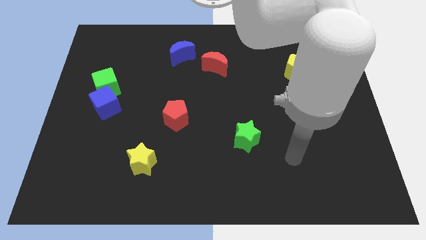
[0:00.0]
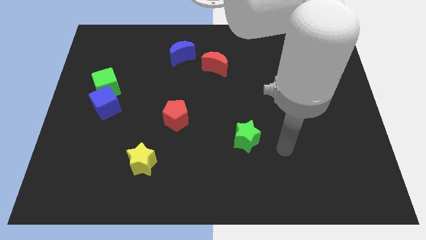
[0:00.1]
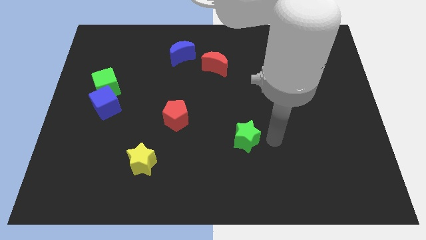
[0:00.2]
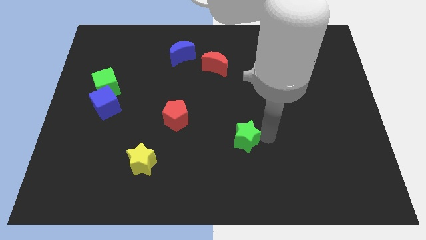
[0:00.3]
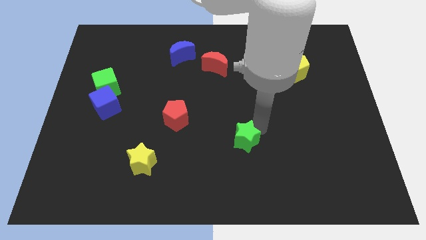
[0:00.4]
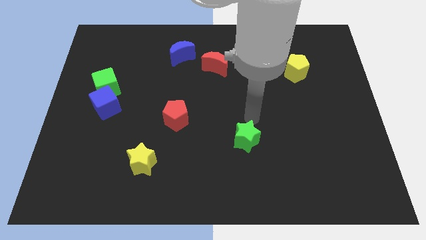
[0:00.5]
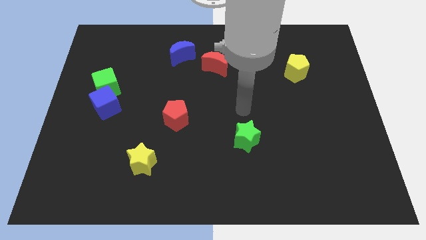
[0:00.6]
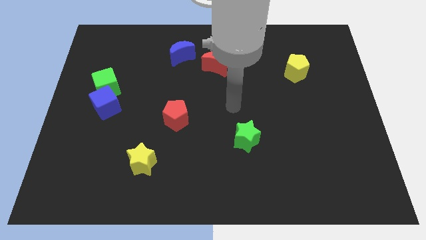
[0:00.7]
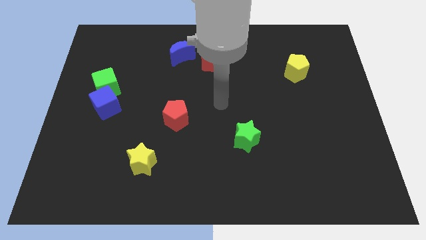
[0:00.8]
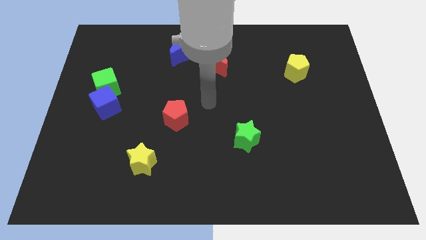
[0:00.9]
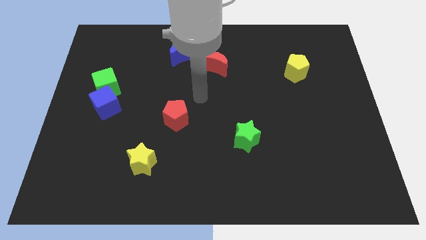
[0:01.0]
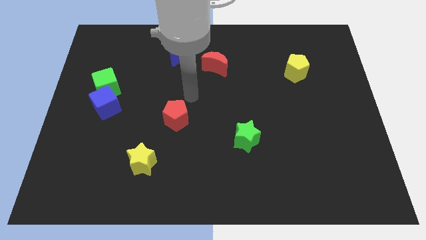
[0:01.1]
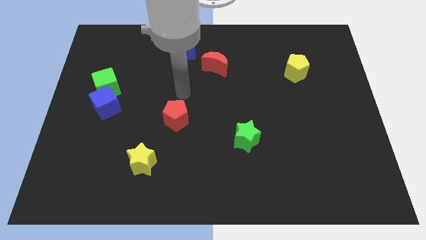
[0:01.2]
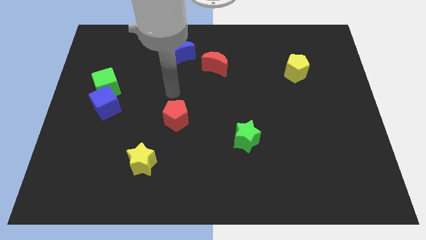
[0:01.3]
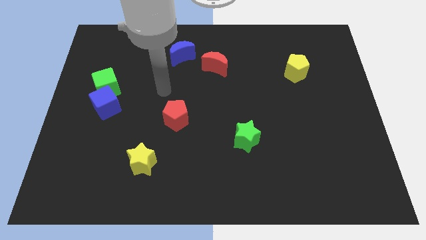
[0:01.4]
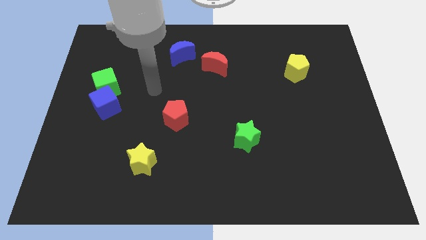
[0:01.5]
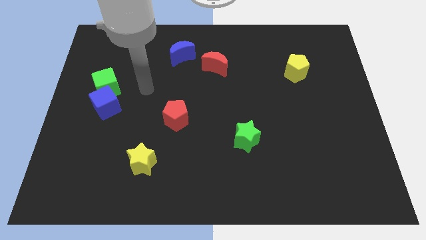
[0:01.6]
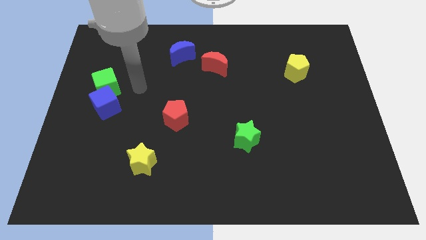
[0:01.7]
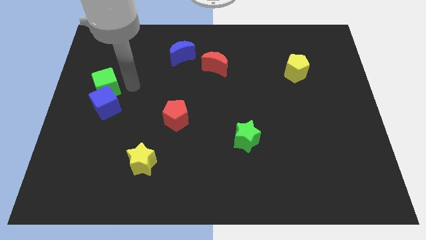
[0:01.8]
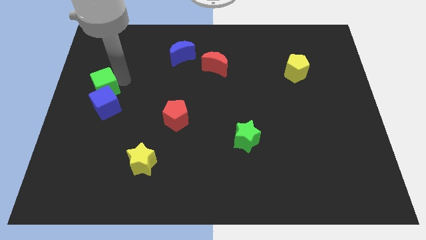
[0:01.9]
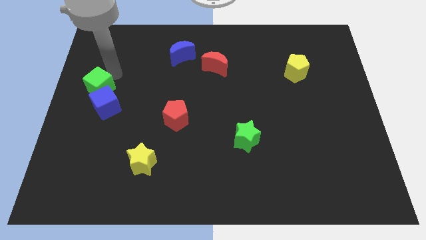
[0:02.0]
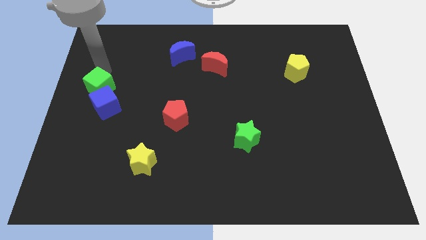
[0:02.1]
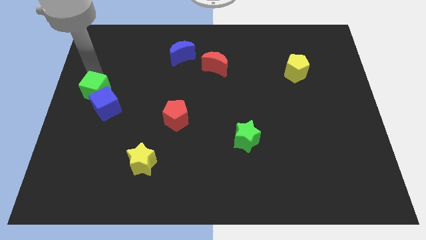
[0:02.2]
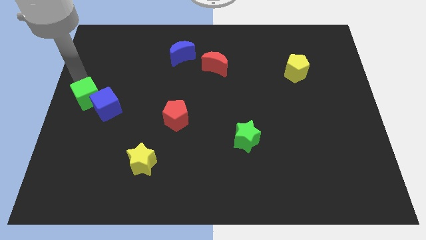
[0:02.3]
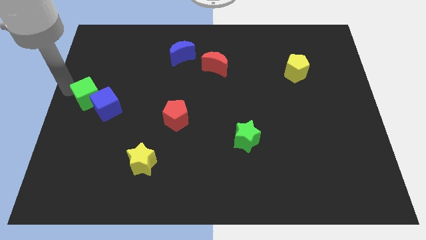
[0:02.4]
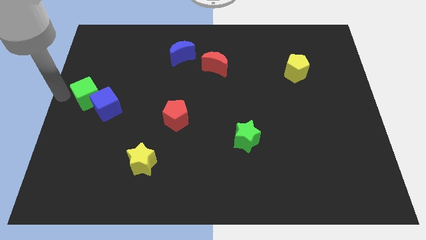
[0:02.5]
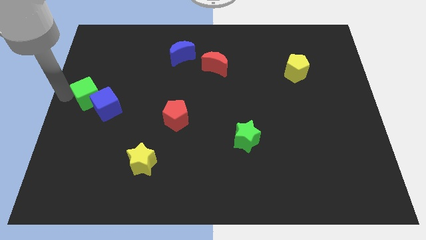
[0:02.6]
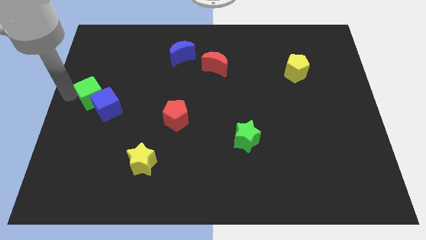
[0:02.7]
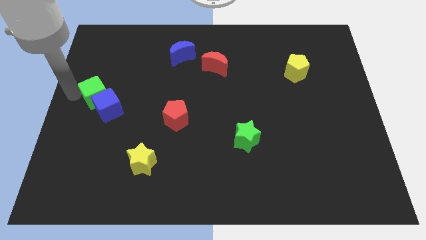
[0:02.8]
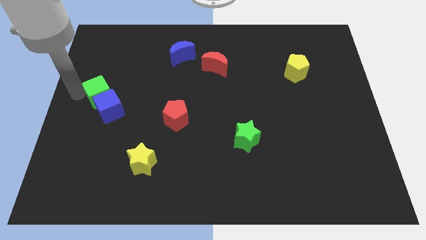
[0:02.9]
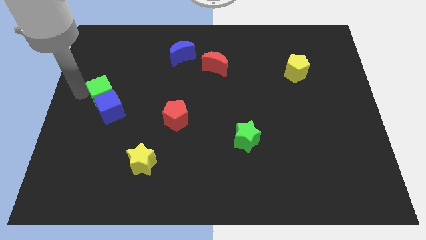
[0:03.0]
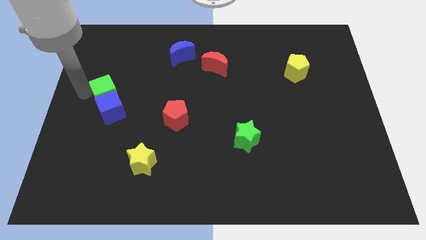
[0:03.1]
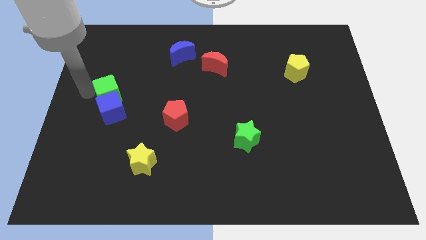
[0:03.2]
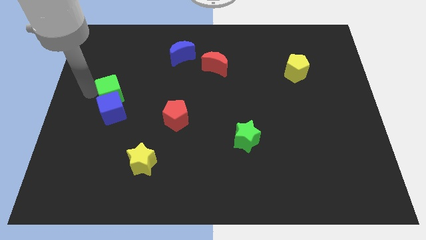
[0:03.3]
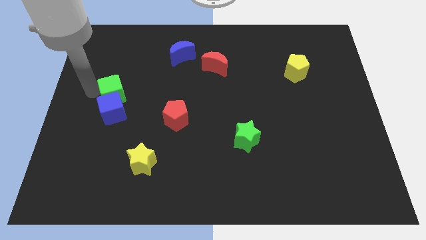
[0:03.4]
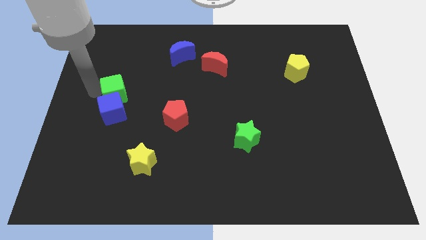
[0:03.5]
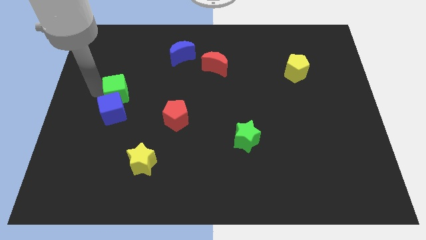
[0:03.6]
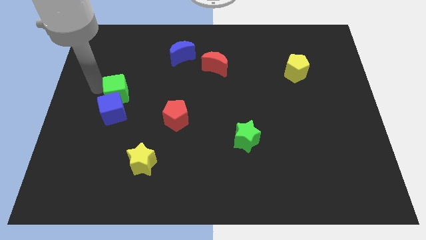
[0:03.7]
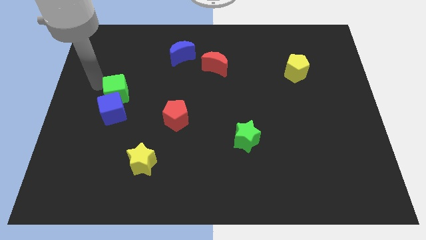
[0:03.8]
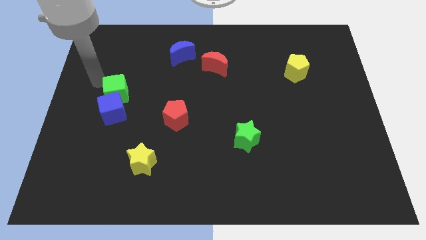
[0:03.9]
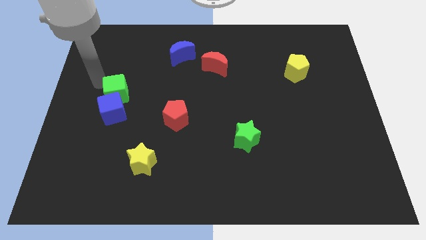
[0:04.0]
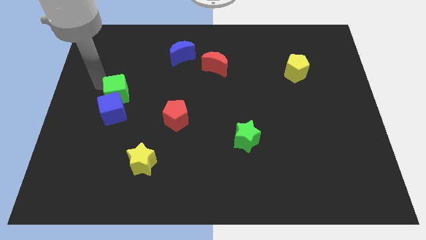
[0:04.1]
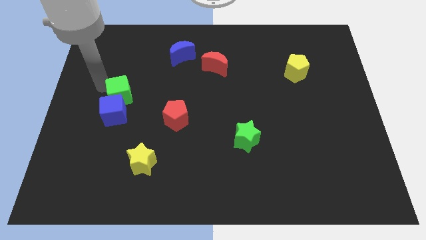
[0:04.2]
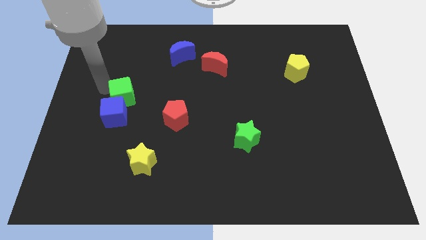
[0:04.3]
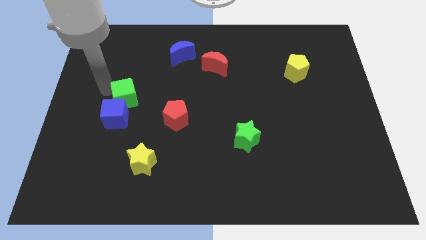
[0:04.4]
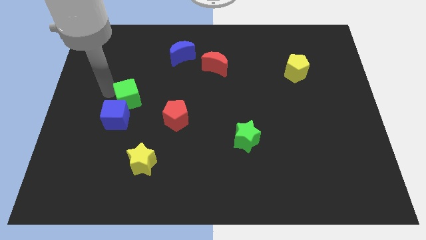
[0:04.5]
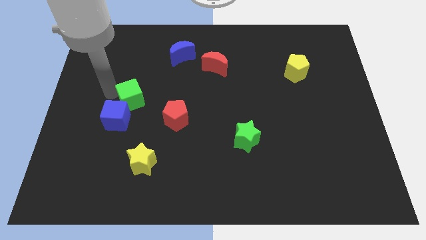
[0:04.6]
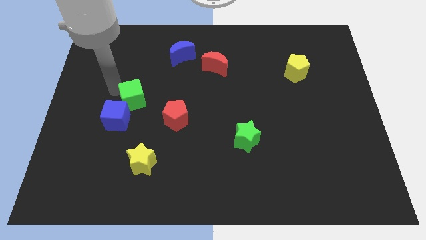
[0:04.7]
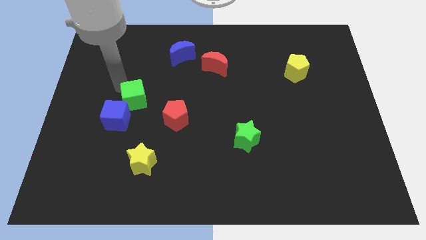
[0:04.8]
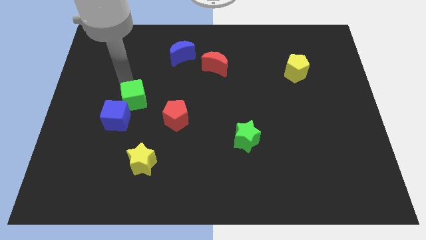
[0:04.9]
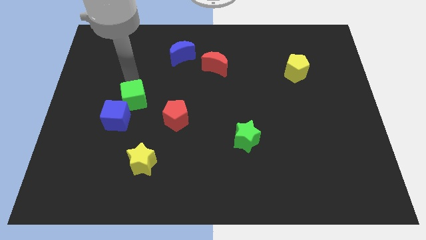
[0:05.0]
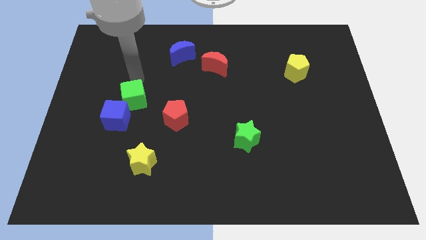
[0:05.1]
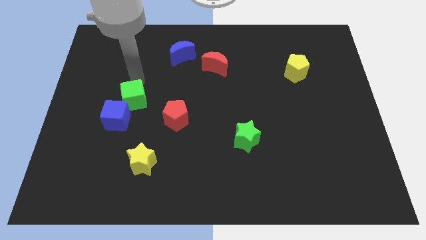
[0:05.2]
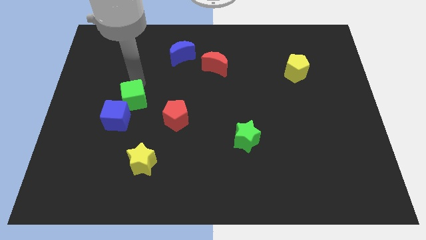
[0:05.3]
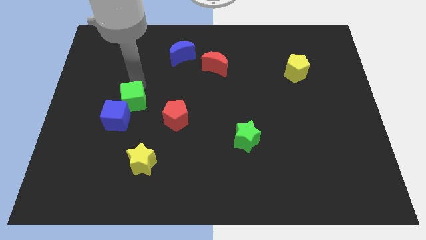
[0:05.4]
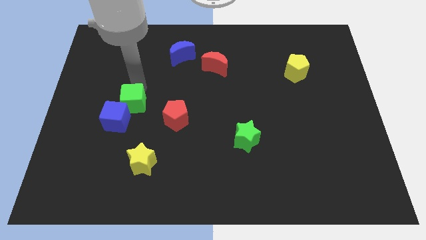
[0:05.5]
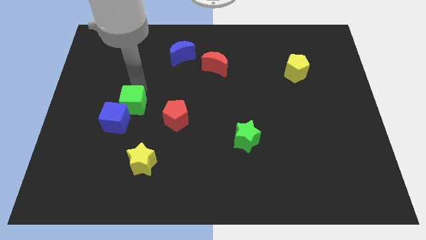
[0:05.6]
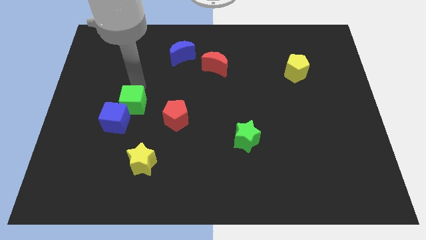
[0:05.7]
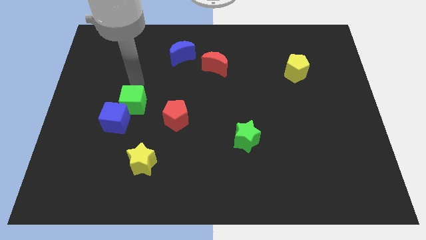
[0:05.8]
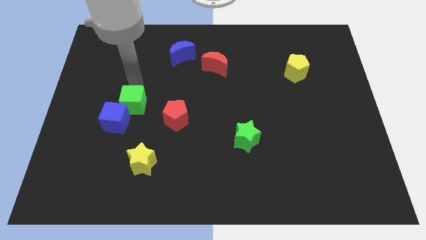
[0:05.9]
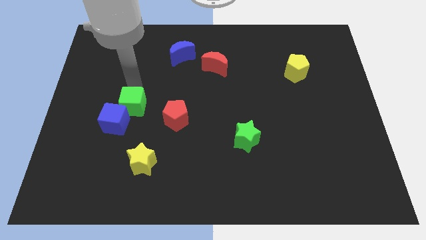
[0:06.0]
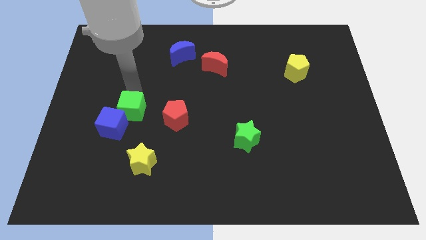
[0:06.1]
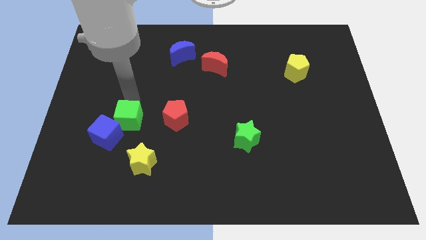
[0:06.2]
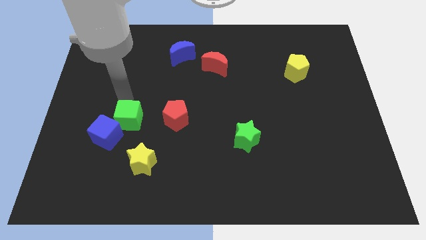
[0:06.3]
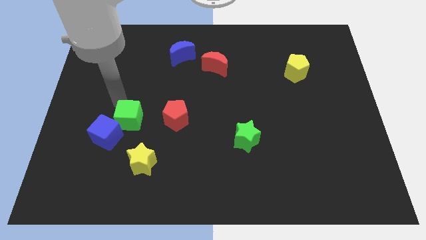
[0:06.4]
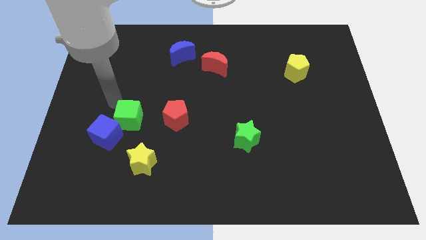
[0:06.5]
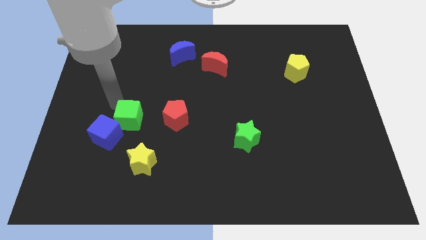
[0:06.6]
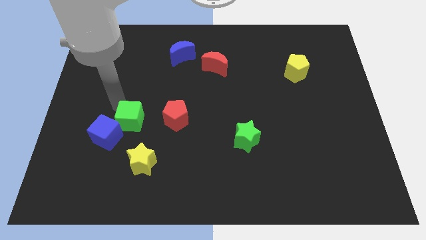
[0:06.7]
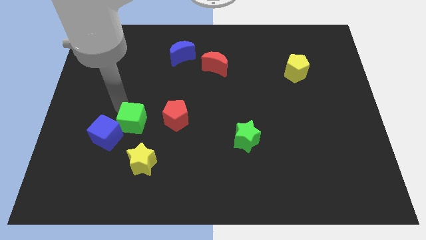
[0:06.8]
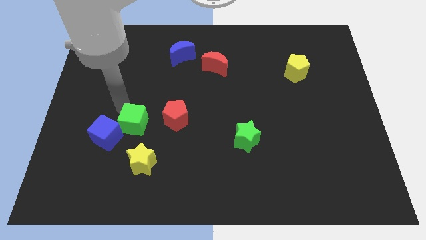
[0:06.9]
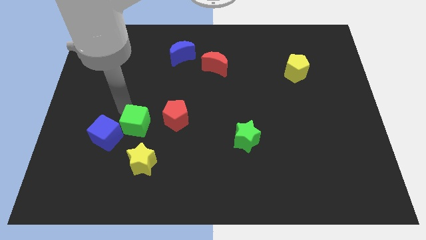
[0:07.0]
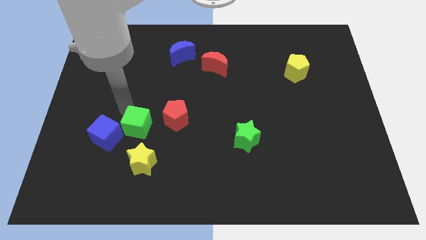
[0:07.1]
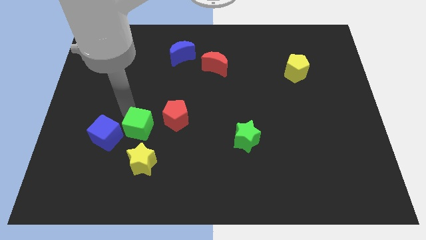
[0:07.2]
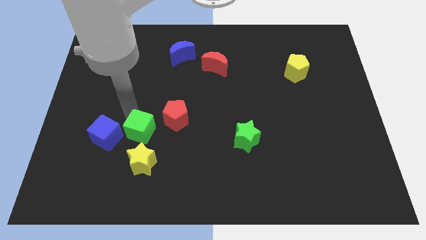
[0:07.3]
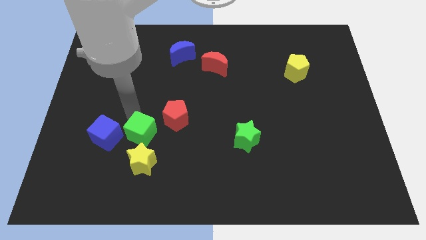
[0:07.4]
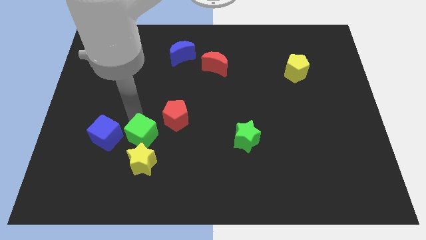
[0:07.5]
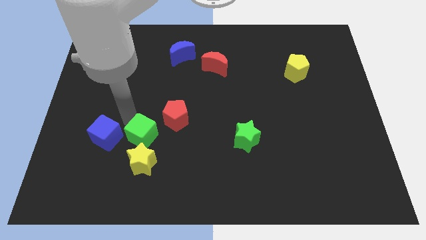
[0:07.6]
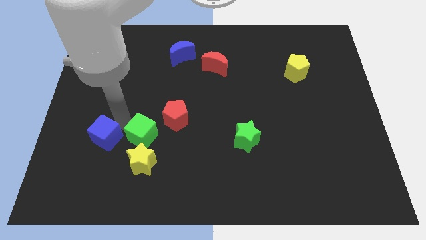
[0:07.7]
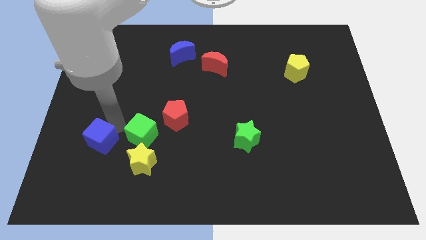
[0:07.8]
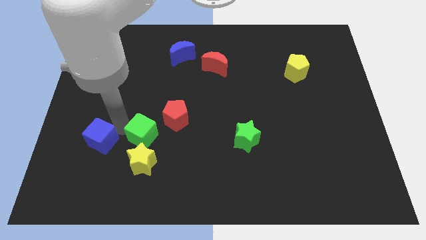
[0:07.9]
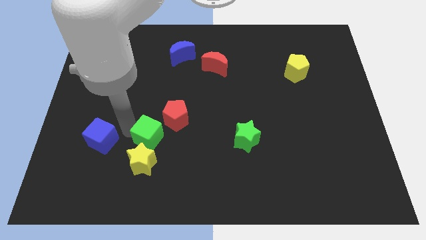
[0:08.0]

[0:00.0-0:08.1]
push the green cube to the top right side of the yellow star
